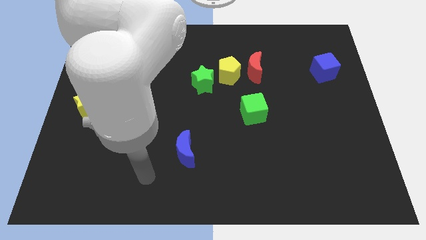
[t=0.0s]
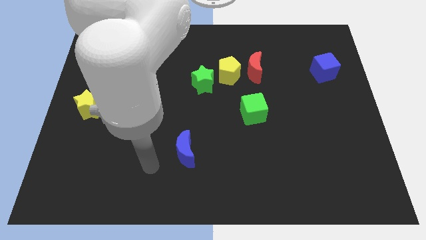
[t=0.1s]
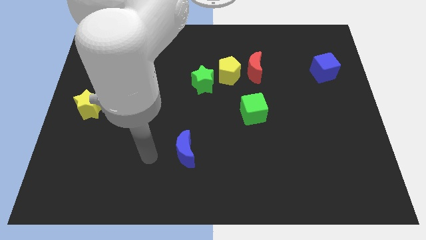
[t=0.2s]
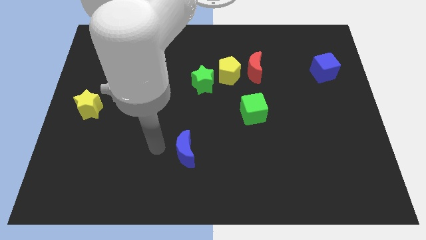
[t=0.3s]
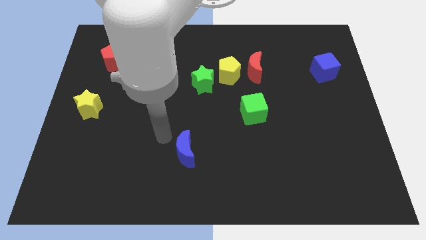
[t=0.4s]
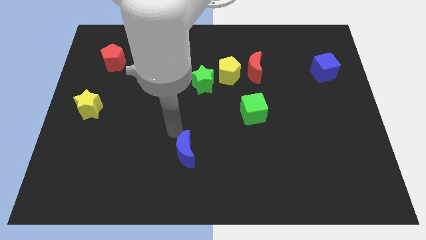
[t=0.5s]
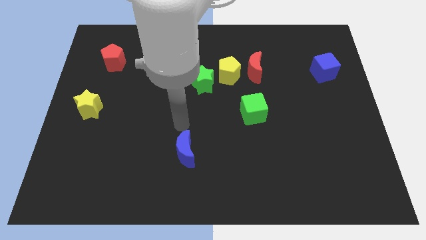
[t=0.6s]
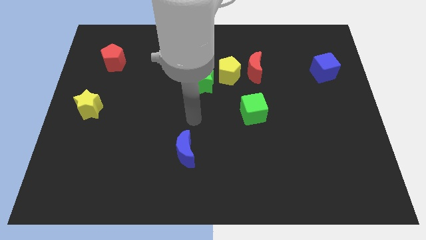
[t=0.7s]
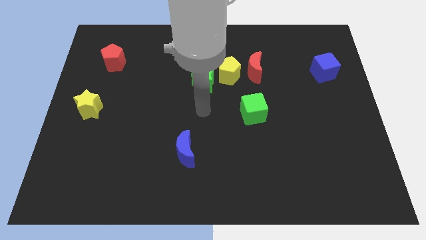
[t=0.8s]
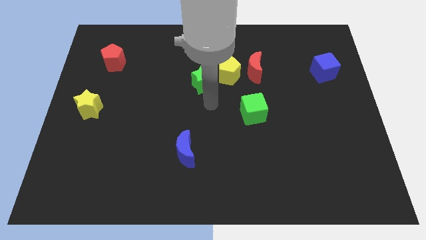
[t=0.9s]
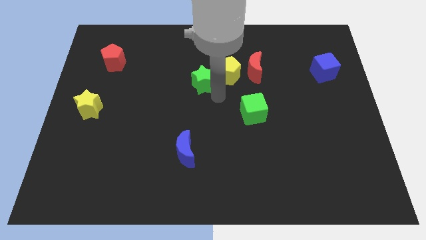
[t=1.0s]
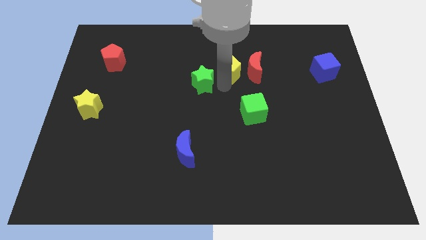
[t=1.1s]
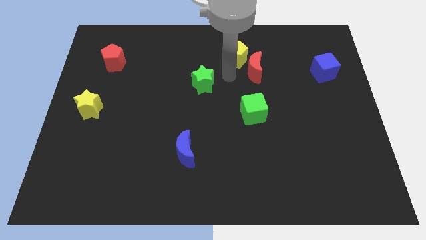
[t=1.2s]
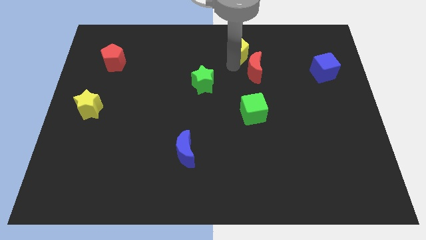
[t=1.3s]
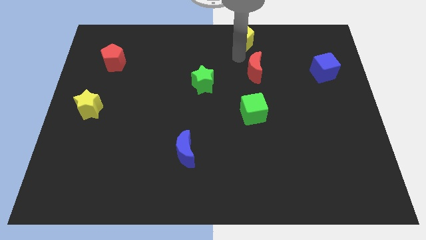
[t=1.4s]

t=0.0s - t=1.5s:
move the red moon away from the yellow pentagon

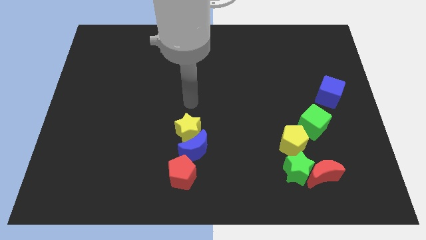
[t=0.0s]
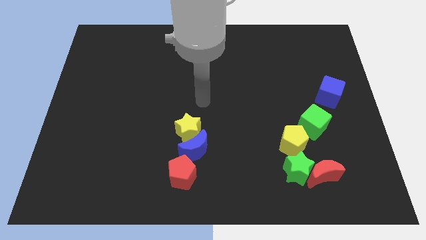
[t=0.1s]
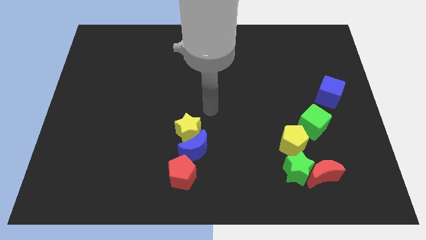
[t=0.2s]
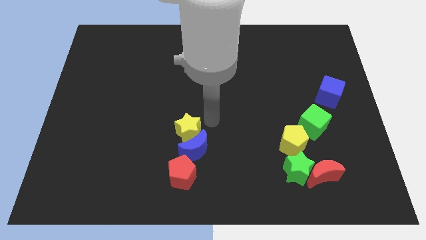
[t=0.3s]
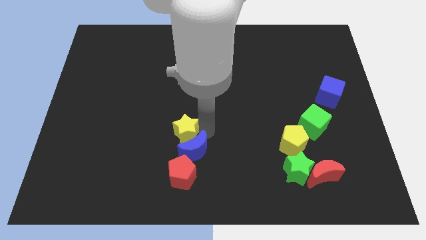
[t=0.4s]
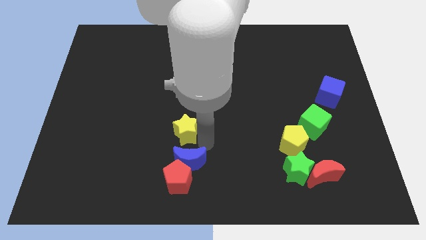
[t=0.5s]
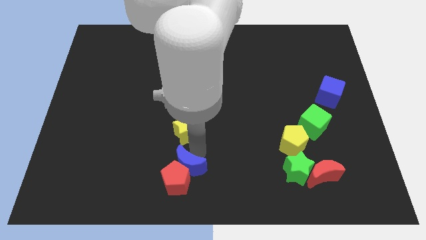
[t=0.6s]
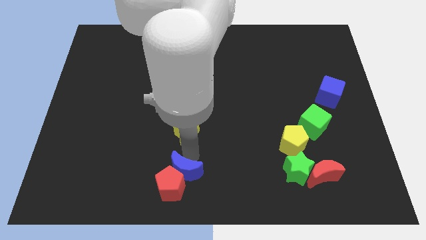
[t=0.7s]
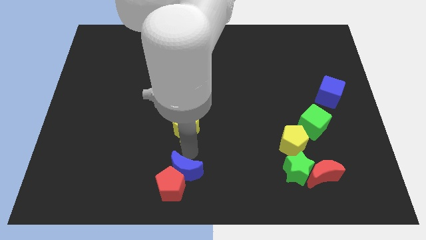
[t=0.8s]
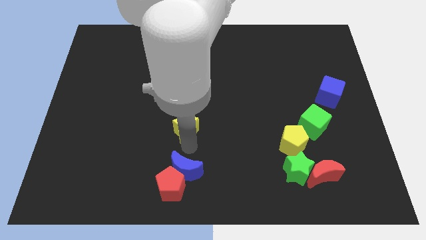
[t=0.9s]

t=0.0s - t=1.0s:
move the yellow star away from the blue moon

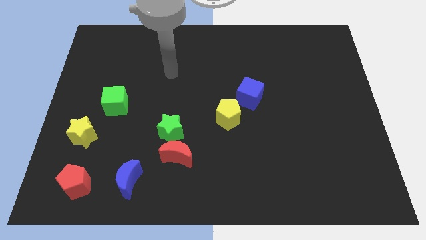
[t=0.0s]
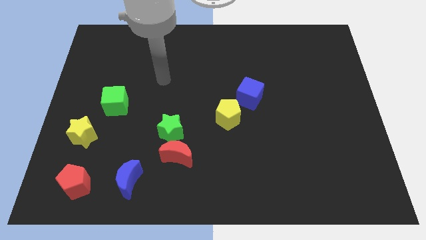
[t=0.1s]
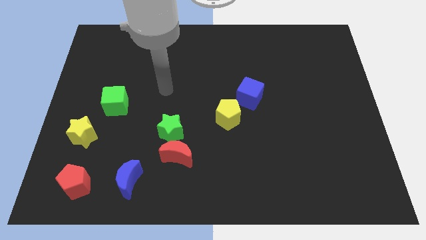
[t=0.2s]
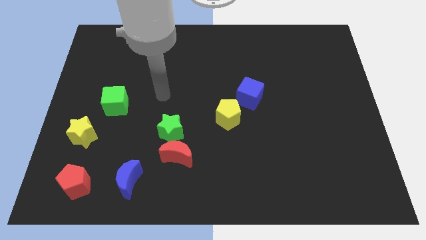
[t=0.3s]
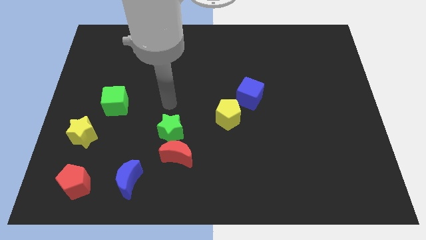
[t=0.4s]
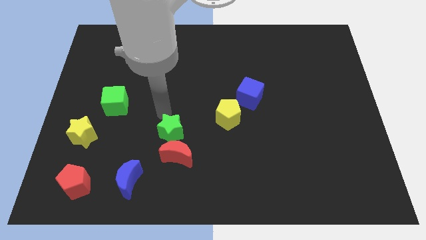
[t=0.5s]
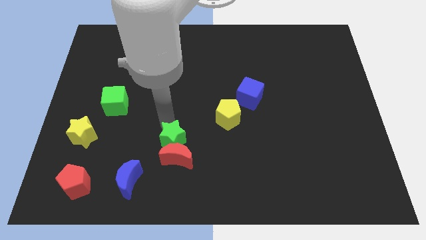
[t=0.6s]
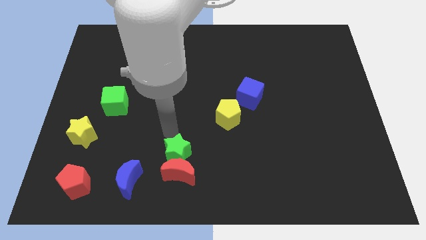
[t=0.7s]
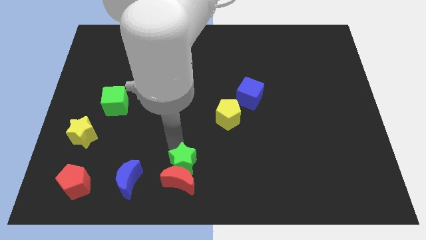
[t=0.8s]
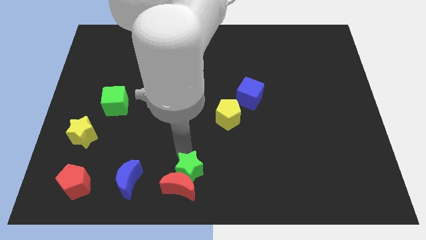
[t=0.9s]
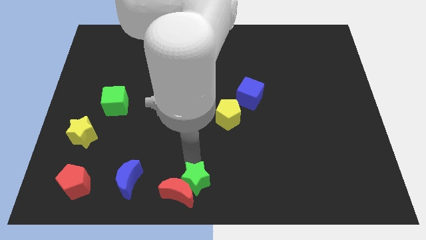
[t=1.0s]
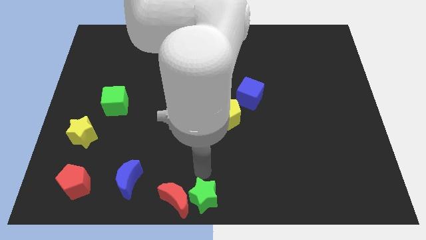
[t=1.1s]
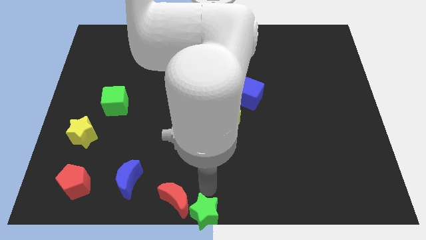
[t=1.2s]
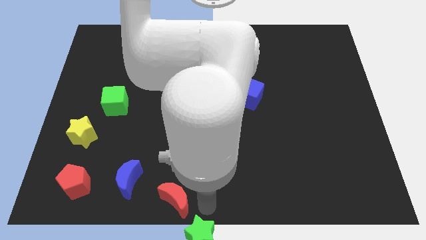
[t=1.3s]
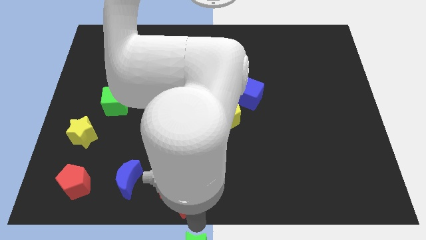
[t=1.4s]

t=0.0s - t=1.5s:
move the red moon away from the green star

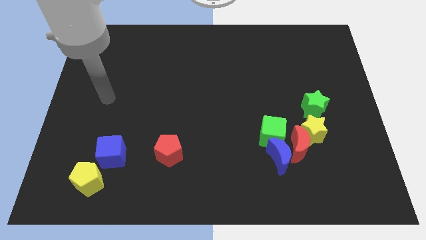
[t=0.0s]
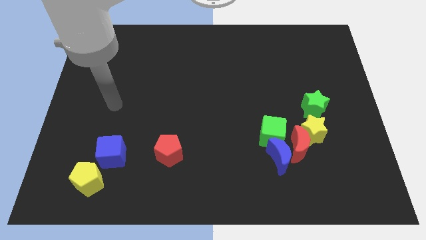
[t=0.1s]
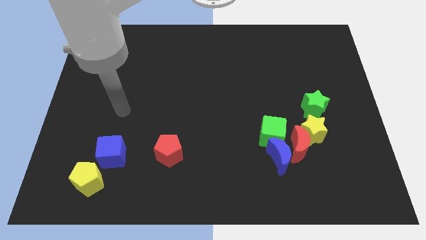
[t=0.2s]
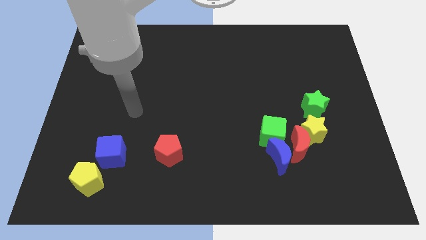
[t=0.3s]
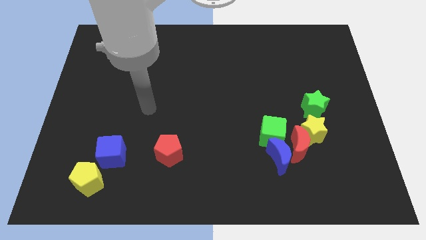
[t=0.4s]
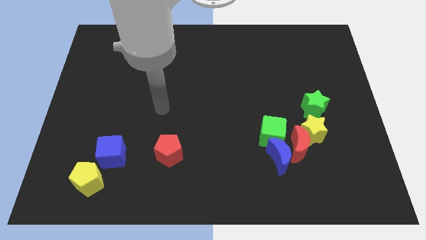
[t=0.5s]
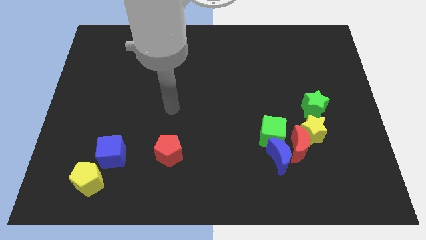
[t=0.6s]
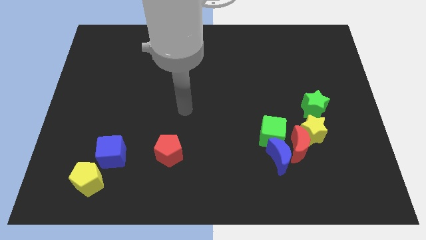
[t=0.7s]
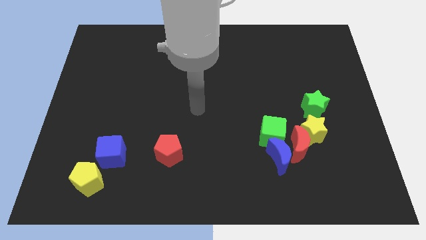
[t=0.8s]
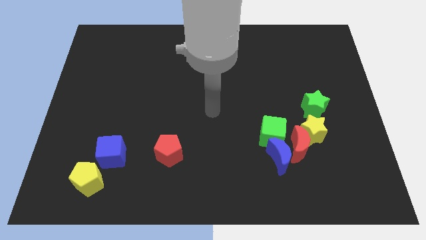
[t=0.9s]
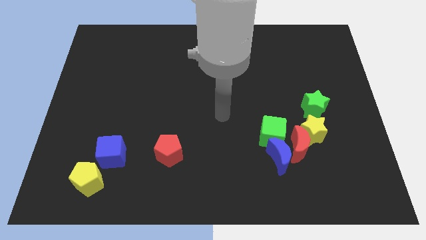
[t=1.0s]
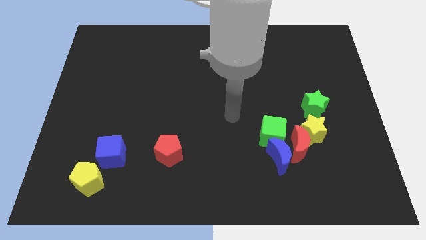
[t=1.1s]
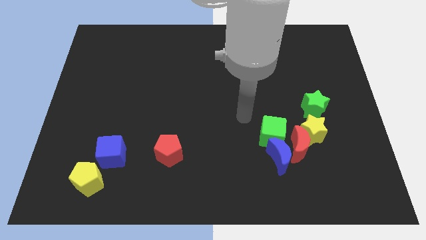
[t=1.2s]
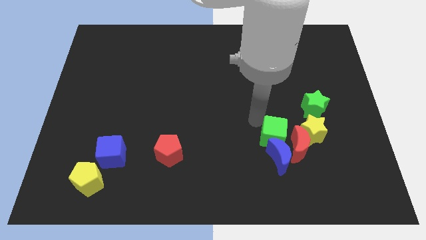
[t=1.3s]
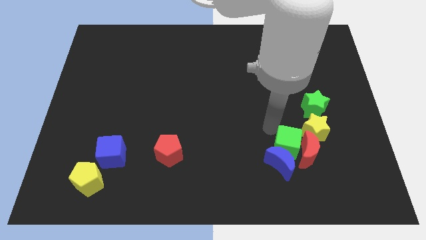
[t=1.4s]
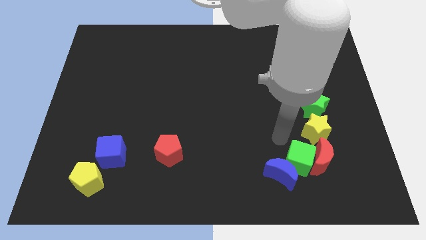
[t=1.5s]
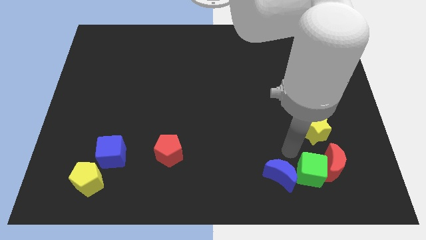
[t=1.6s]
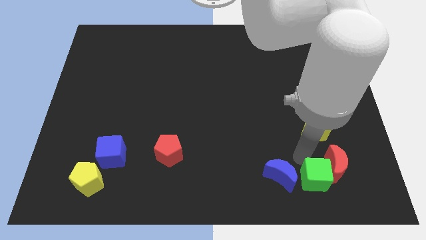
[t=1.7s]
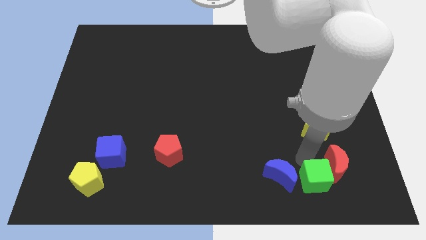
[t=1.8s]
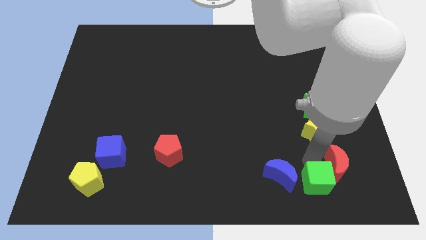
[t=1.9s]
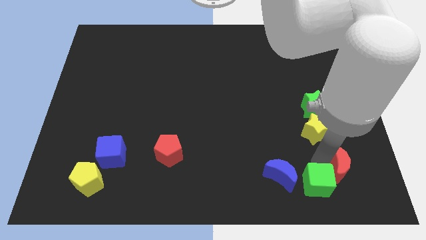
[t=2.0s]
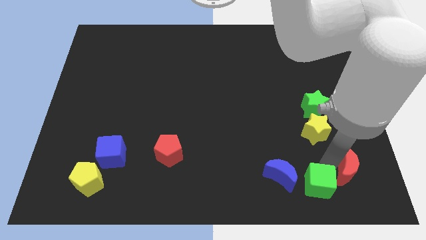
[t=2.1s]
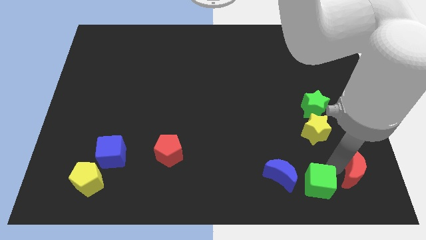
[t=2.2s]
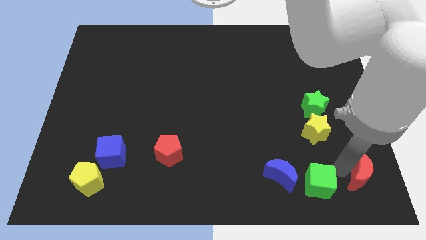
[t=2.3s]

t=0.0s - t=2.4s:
separate the red moon from the group

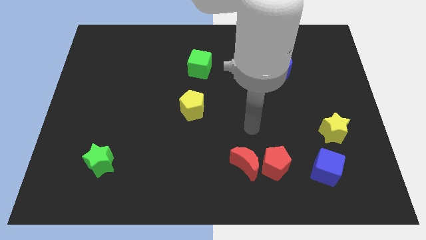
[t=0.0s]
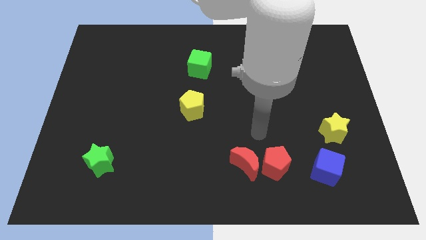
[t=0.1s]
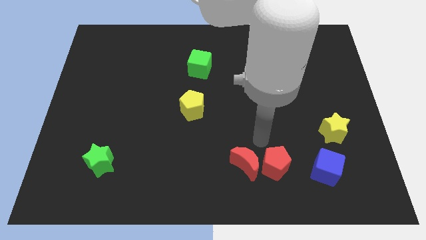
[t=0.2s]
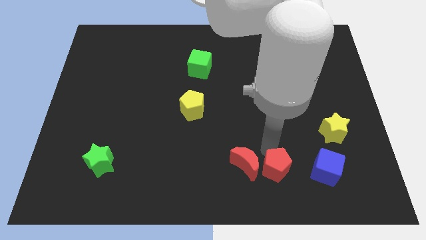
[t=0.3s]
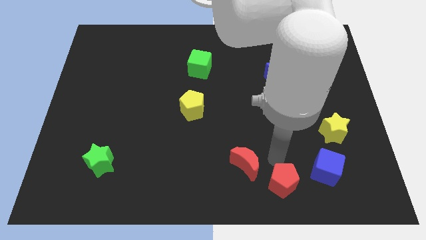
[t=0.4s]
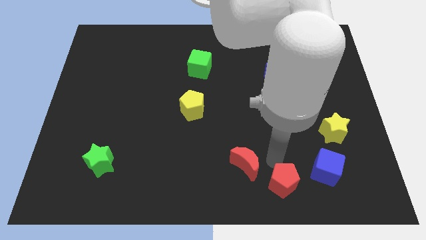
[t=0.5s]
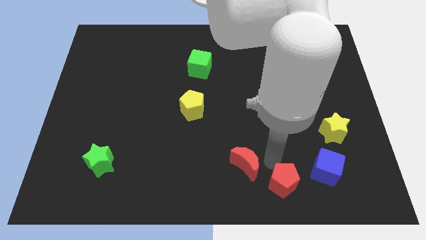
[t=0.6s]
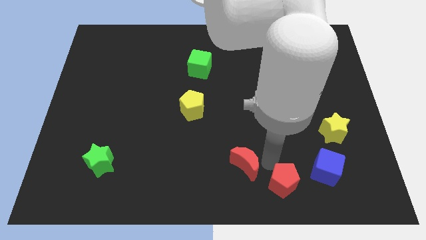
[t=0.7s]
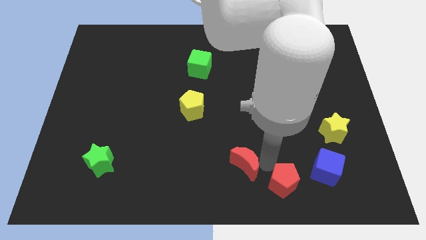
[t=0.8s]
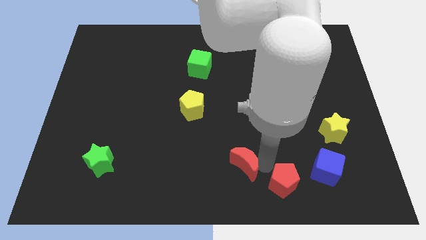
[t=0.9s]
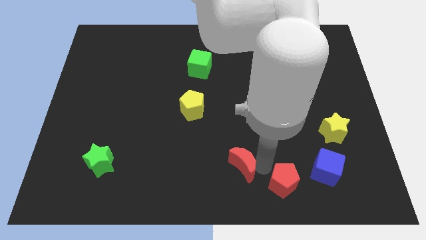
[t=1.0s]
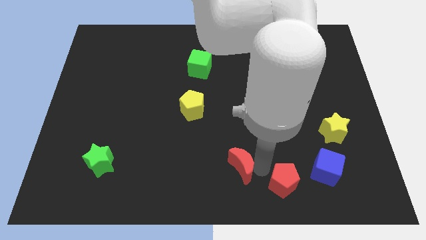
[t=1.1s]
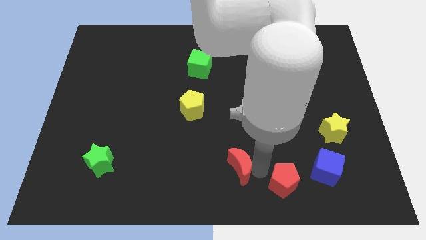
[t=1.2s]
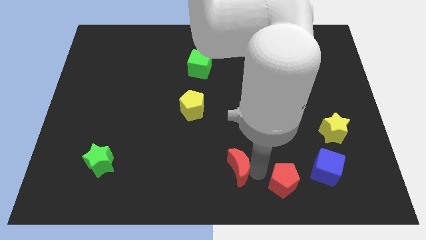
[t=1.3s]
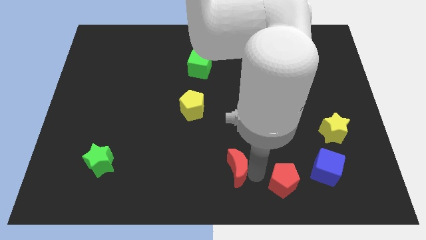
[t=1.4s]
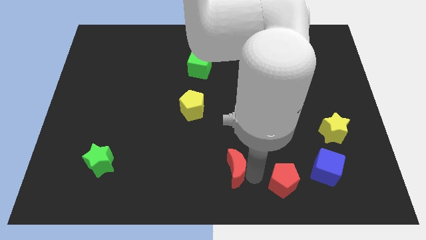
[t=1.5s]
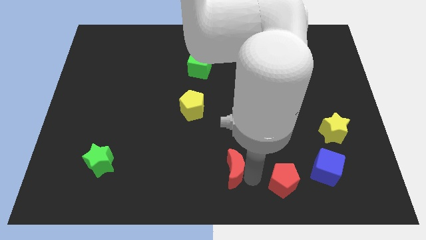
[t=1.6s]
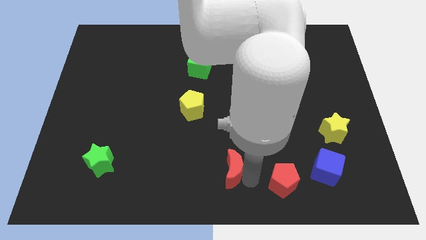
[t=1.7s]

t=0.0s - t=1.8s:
pull the red moon apart from the red pentagon

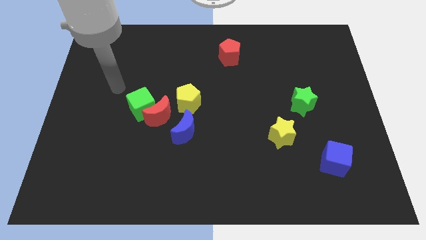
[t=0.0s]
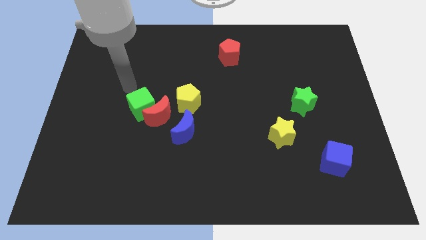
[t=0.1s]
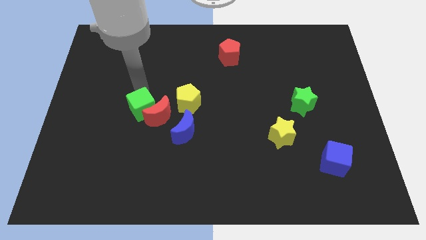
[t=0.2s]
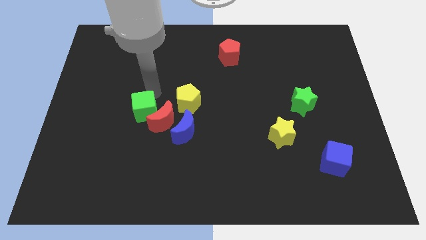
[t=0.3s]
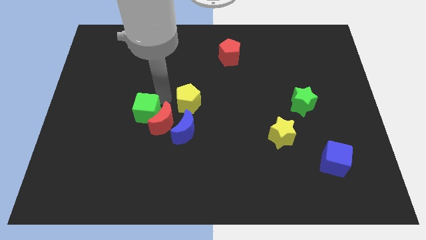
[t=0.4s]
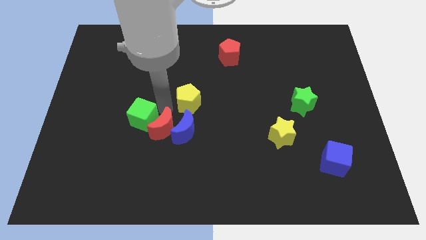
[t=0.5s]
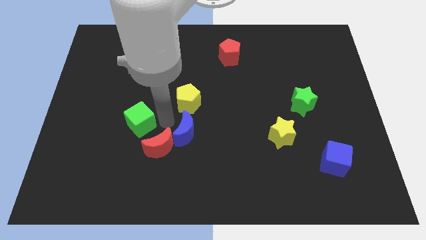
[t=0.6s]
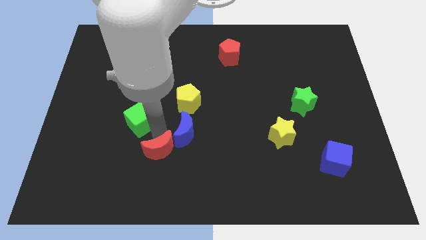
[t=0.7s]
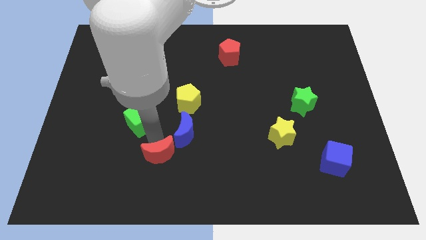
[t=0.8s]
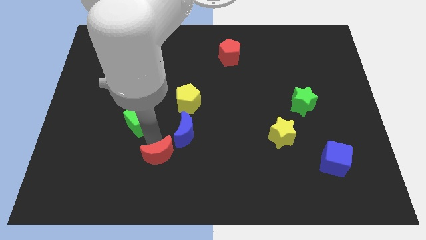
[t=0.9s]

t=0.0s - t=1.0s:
move the green cube away from the red moon
